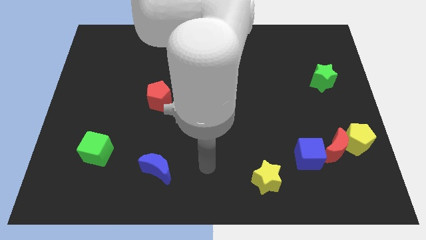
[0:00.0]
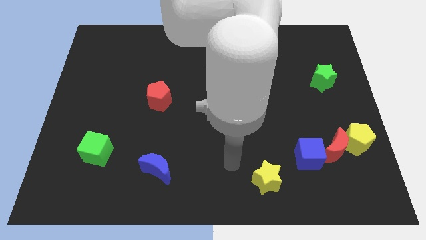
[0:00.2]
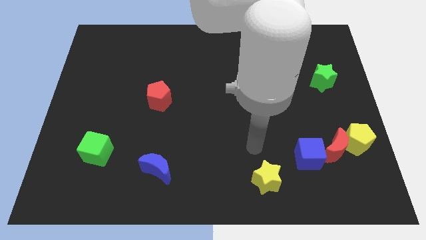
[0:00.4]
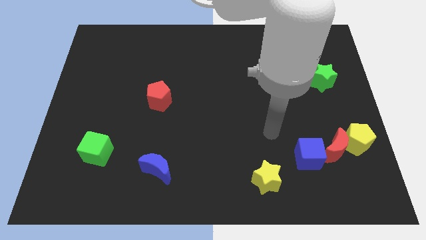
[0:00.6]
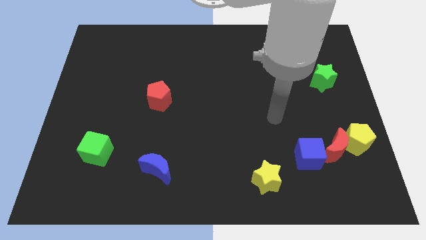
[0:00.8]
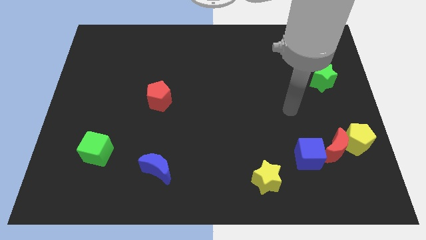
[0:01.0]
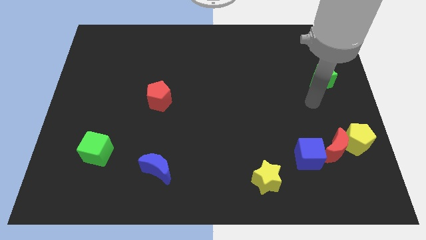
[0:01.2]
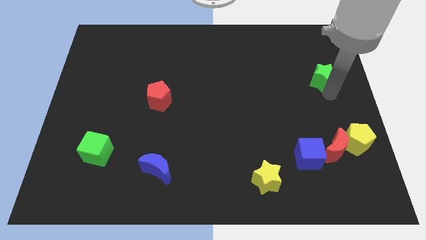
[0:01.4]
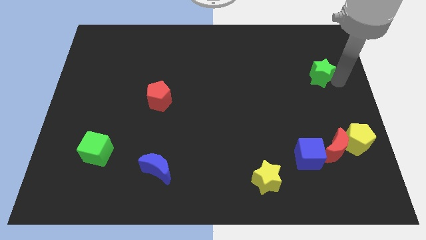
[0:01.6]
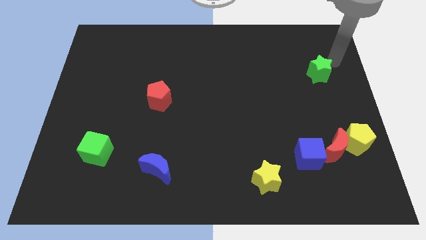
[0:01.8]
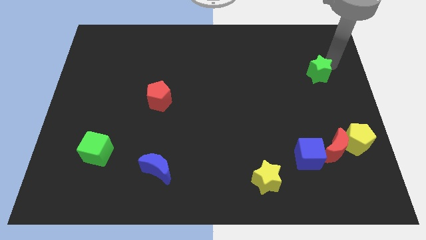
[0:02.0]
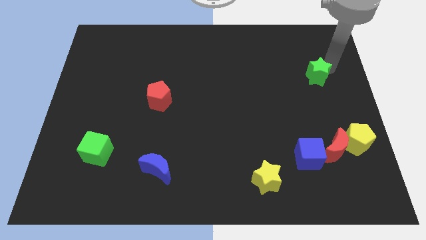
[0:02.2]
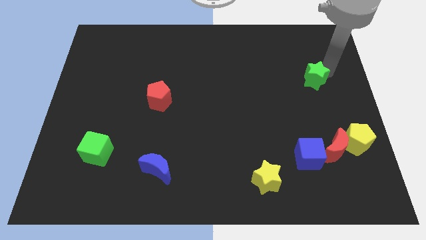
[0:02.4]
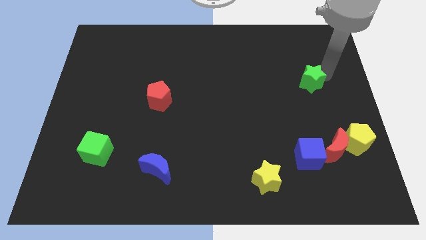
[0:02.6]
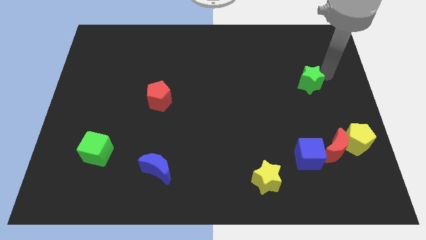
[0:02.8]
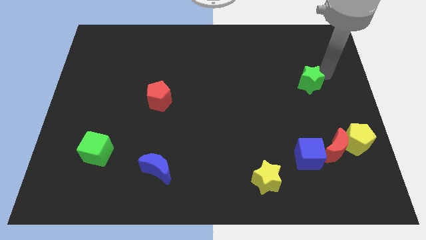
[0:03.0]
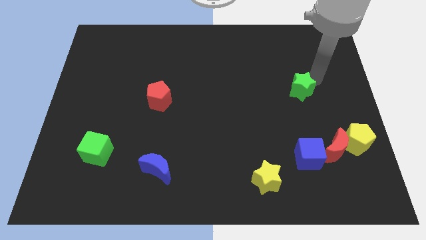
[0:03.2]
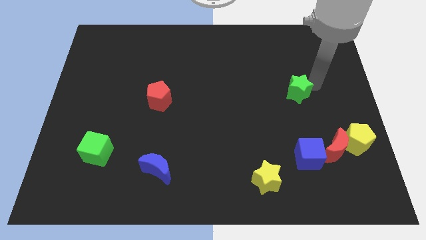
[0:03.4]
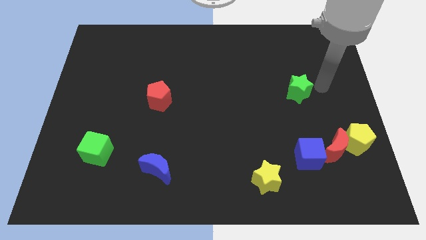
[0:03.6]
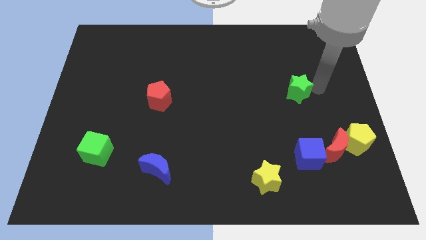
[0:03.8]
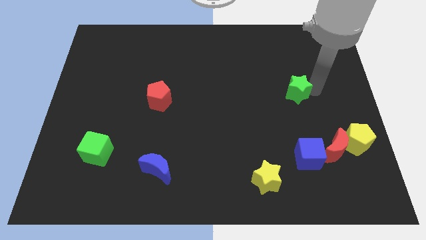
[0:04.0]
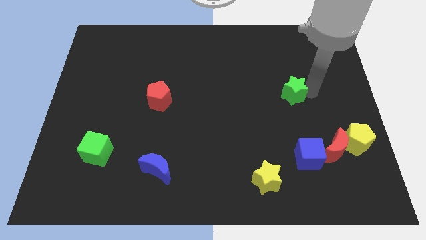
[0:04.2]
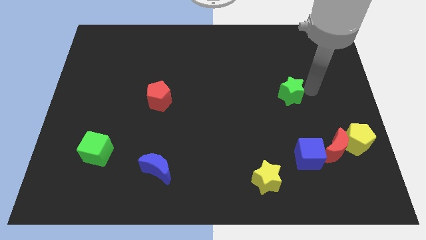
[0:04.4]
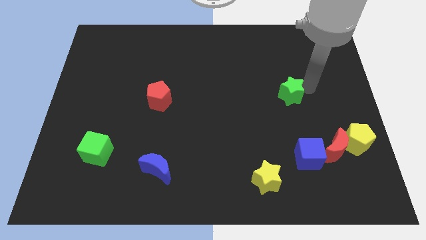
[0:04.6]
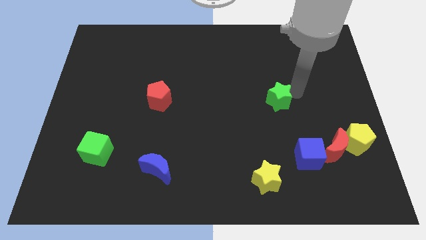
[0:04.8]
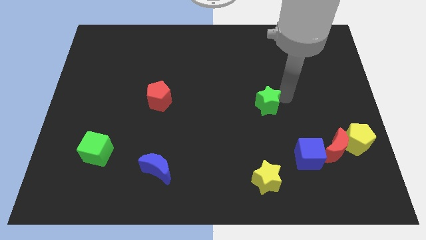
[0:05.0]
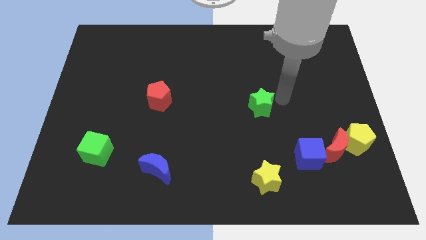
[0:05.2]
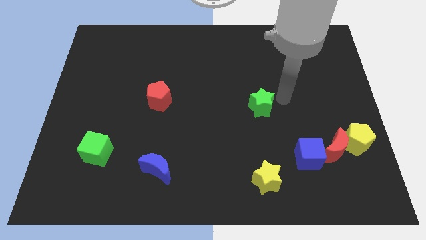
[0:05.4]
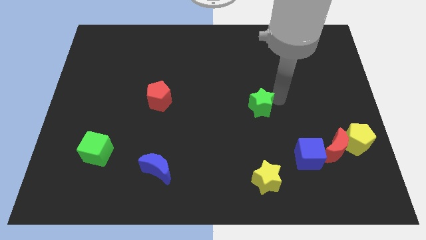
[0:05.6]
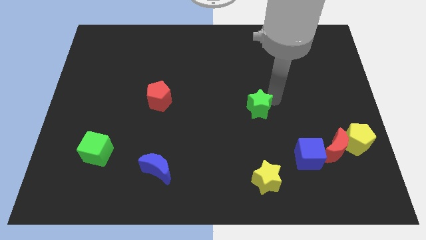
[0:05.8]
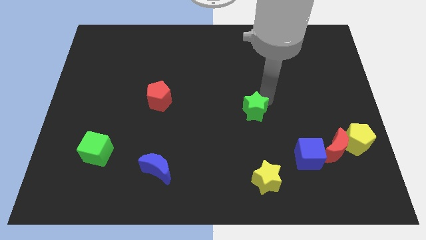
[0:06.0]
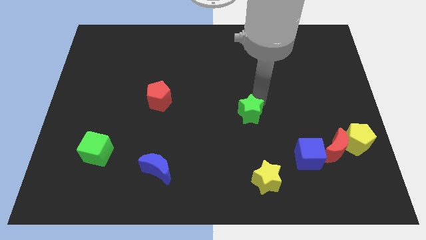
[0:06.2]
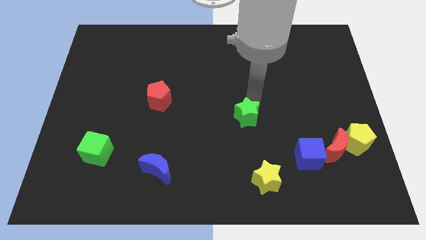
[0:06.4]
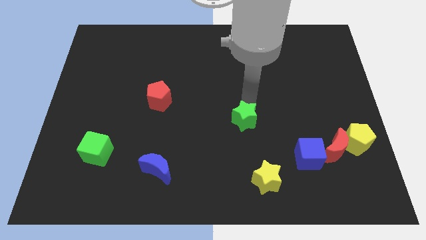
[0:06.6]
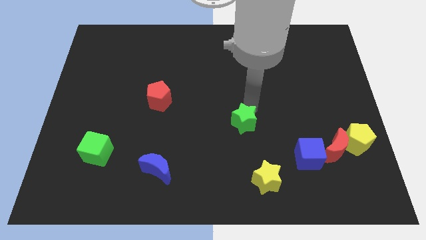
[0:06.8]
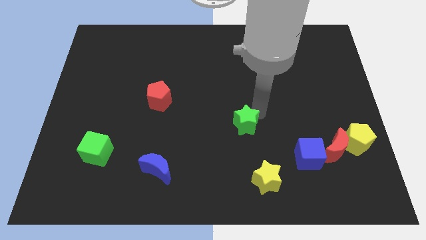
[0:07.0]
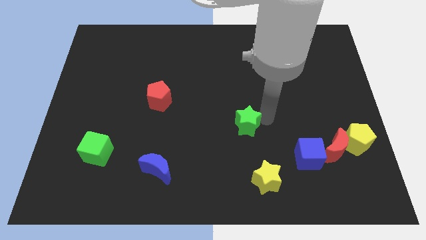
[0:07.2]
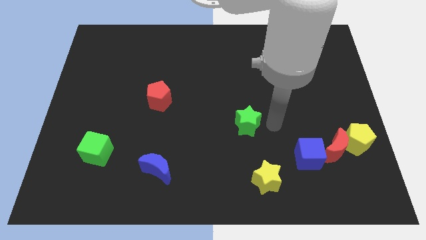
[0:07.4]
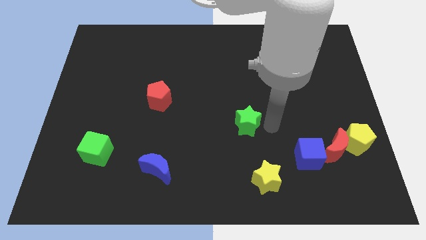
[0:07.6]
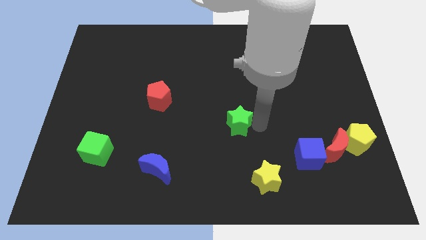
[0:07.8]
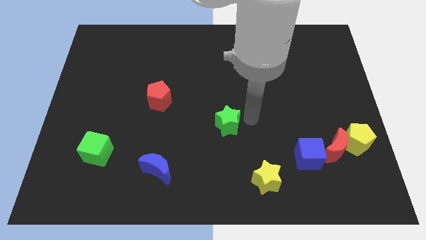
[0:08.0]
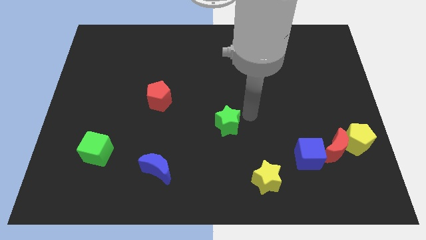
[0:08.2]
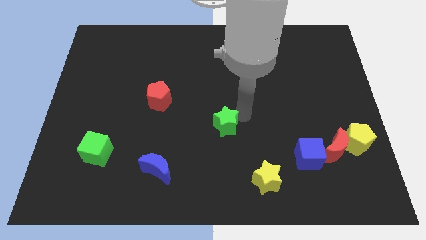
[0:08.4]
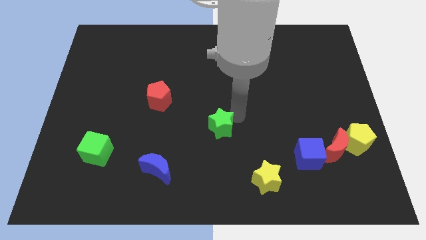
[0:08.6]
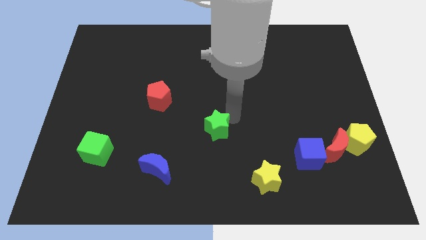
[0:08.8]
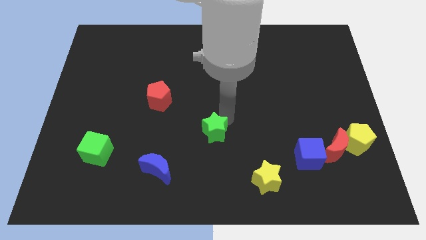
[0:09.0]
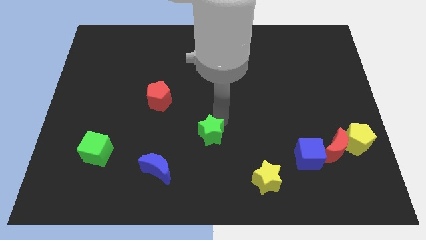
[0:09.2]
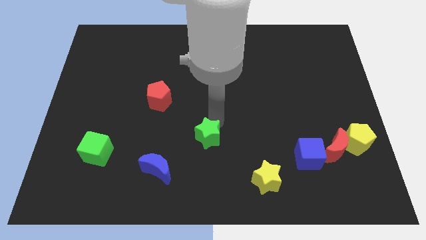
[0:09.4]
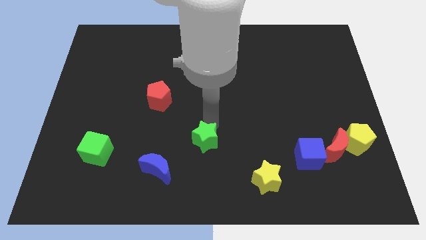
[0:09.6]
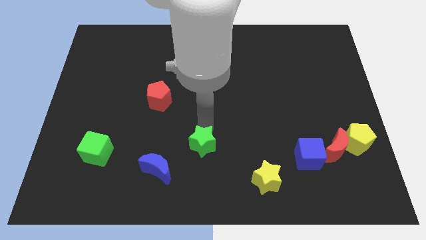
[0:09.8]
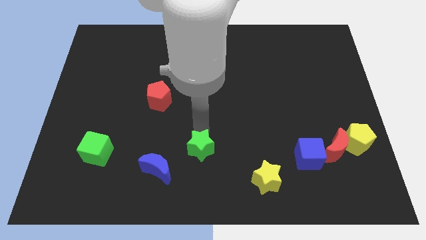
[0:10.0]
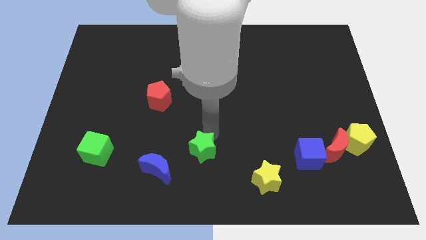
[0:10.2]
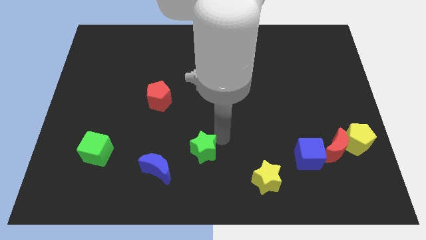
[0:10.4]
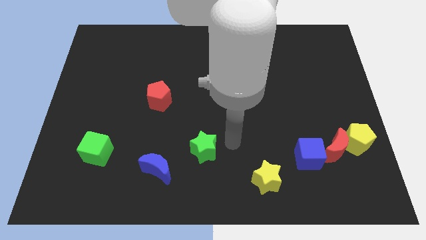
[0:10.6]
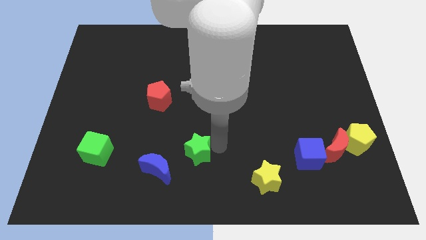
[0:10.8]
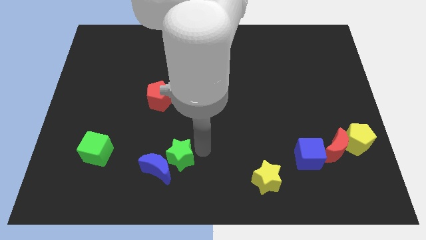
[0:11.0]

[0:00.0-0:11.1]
slide the green star close to the blue moon

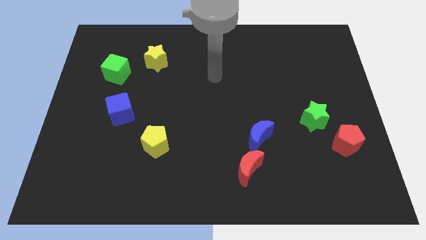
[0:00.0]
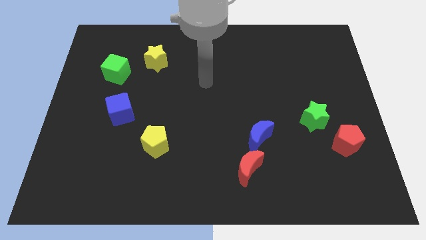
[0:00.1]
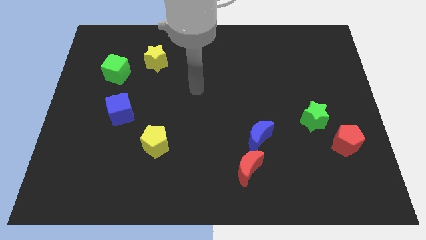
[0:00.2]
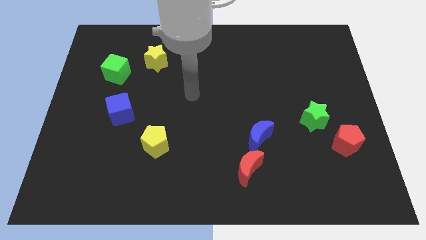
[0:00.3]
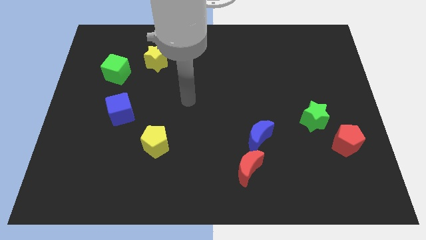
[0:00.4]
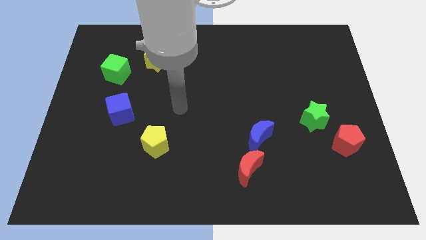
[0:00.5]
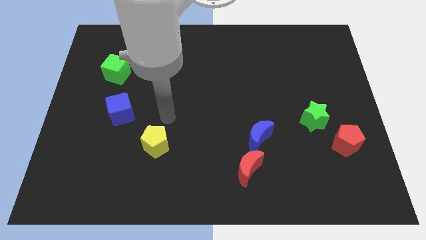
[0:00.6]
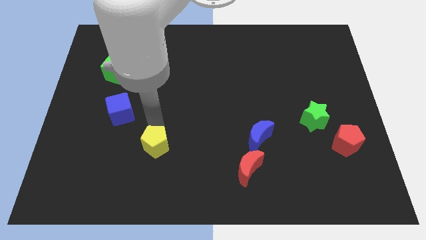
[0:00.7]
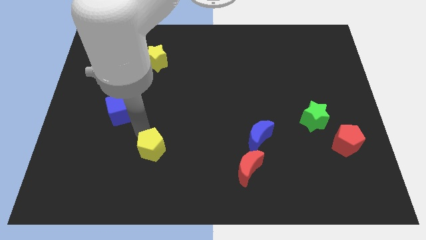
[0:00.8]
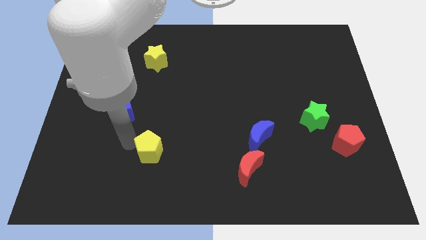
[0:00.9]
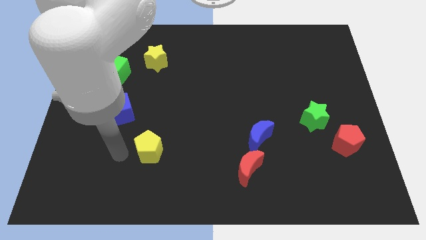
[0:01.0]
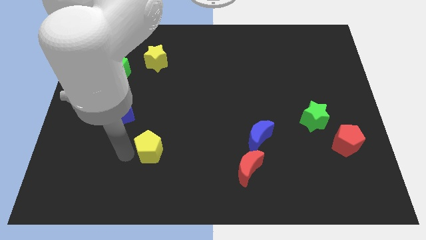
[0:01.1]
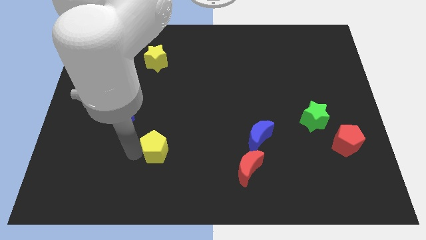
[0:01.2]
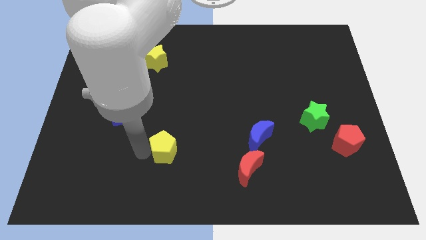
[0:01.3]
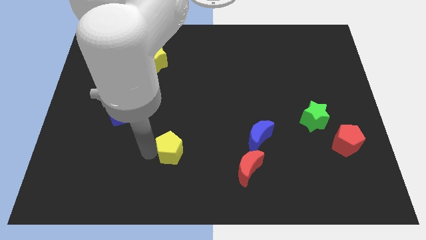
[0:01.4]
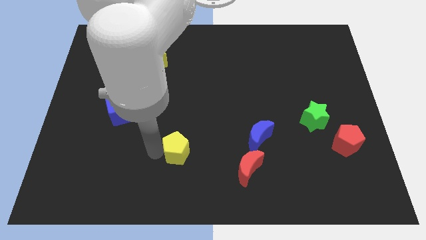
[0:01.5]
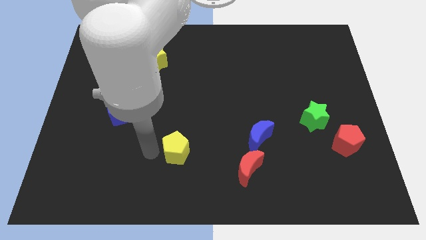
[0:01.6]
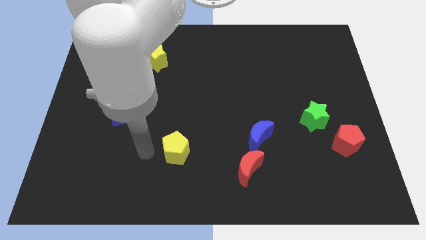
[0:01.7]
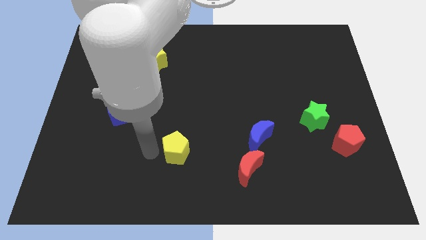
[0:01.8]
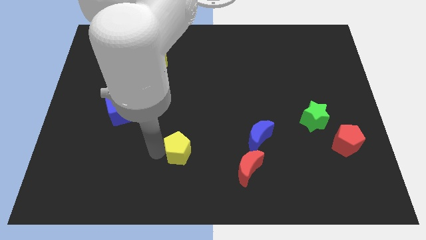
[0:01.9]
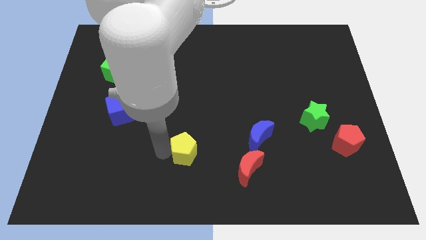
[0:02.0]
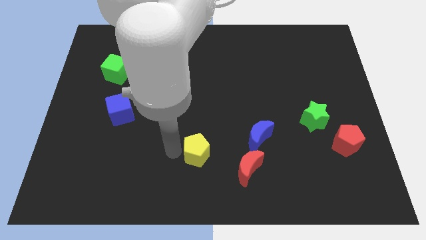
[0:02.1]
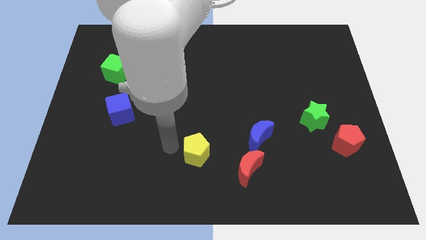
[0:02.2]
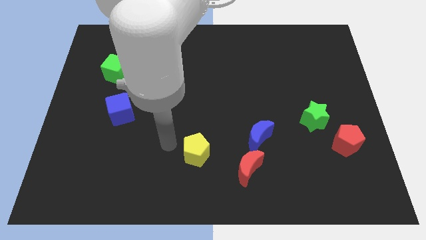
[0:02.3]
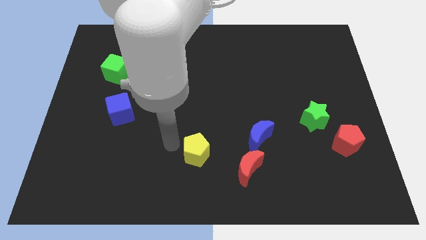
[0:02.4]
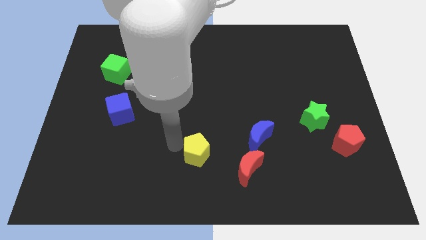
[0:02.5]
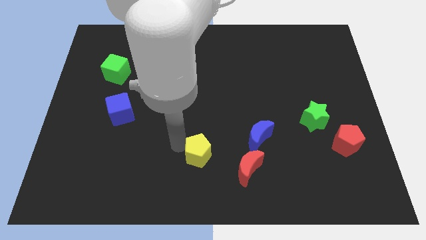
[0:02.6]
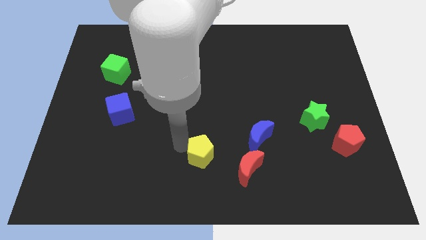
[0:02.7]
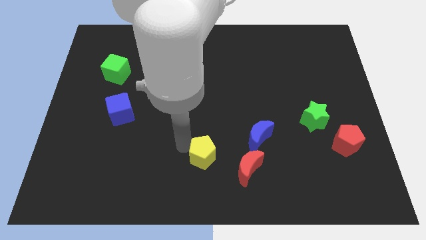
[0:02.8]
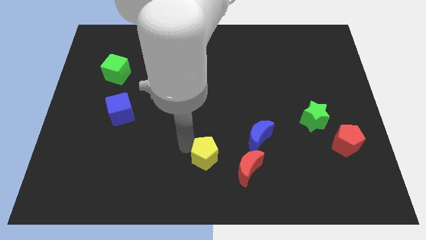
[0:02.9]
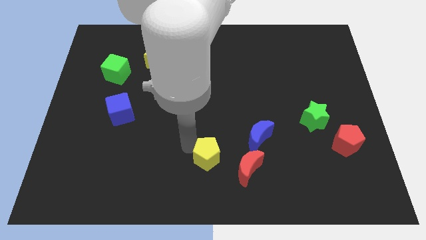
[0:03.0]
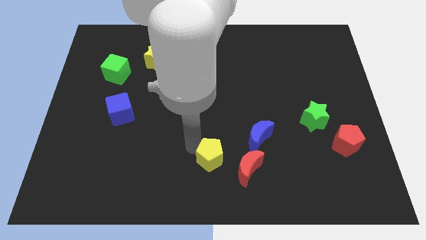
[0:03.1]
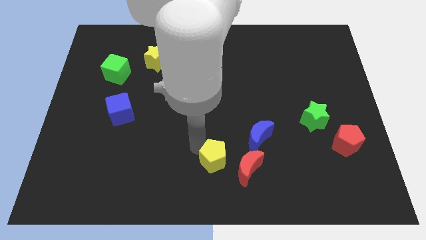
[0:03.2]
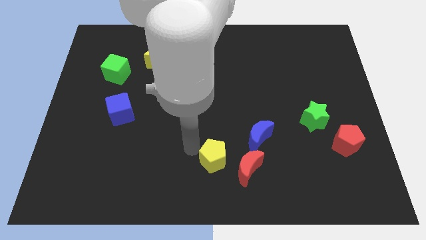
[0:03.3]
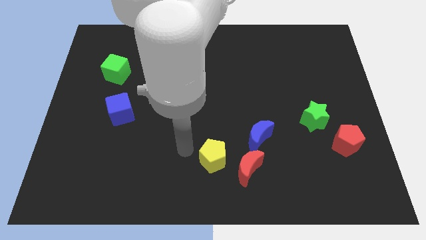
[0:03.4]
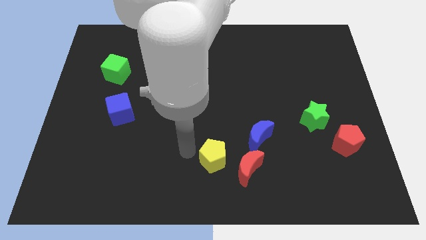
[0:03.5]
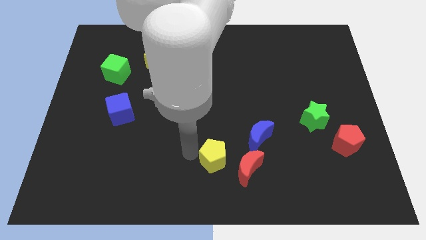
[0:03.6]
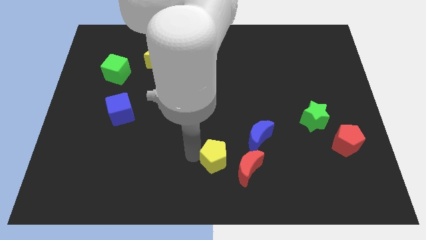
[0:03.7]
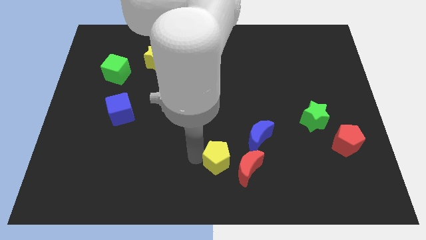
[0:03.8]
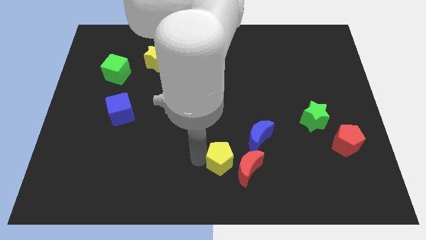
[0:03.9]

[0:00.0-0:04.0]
put the yellow pentagon towards the red moon
